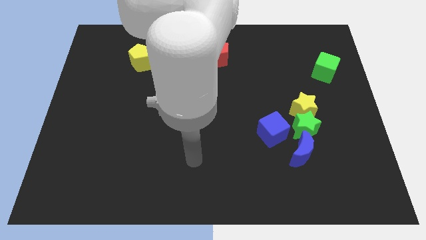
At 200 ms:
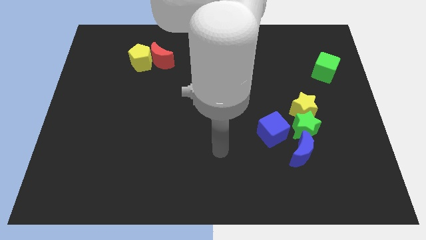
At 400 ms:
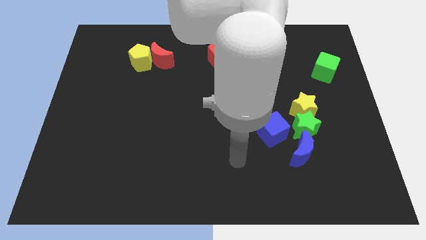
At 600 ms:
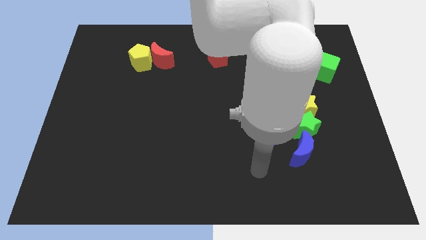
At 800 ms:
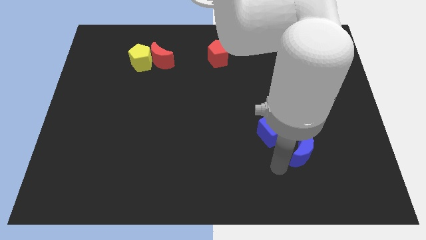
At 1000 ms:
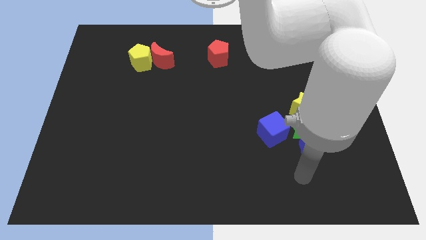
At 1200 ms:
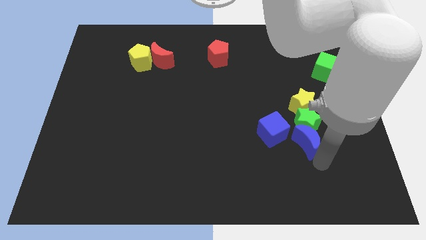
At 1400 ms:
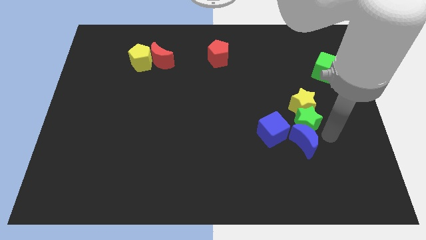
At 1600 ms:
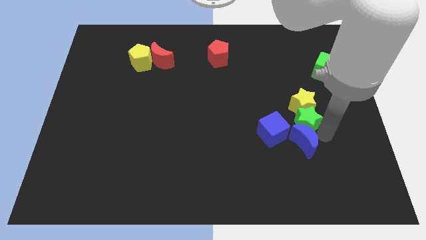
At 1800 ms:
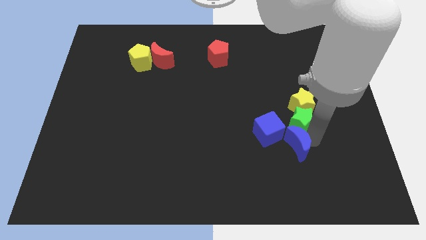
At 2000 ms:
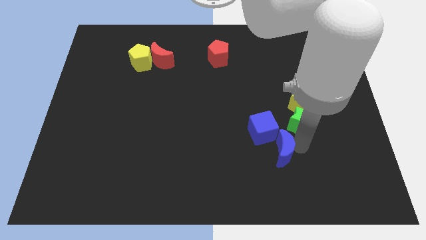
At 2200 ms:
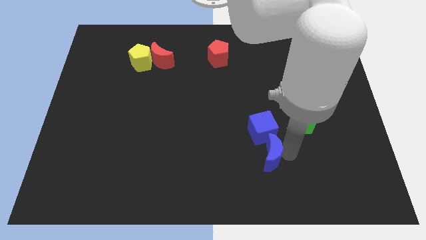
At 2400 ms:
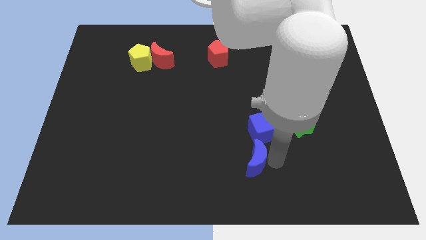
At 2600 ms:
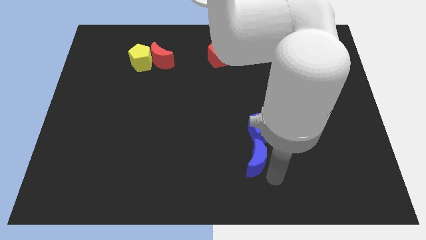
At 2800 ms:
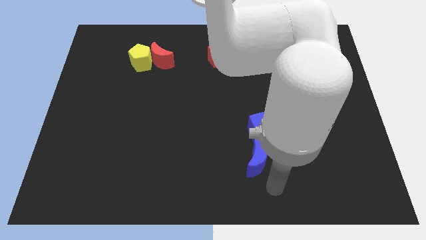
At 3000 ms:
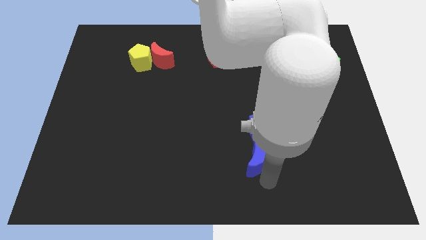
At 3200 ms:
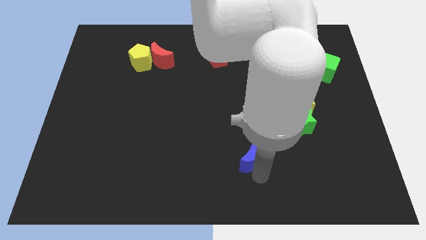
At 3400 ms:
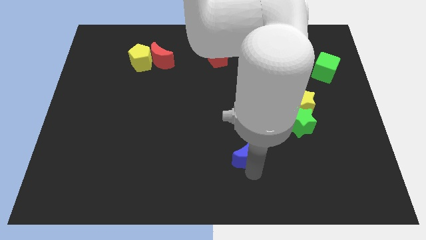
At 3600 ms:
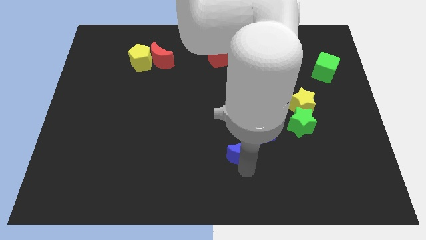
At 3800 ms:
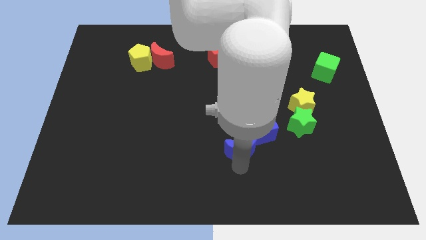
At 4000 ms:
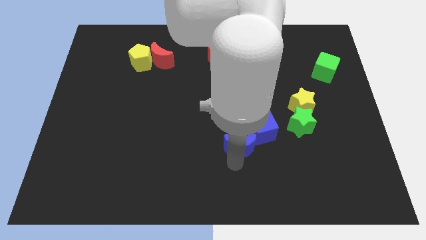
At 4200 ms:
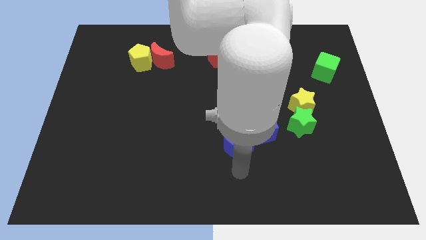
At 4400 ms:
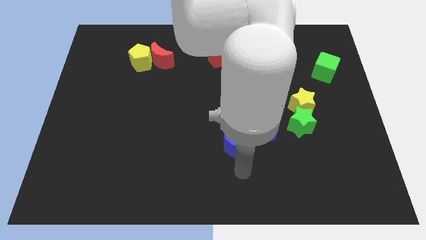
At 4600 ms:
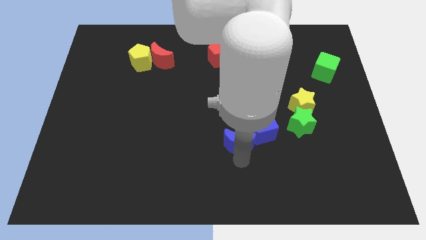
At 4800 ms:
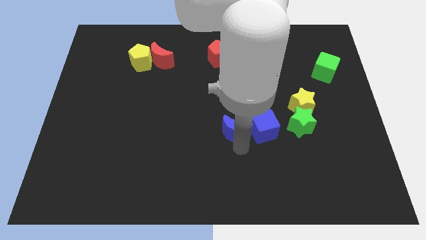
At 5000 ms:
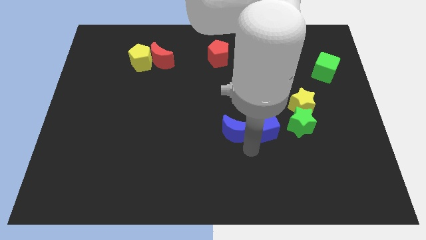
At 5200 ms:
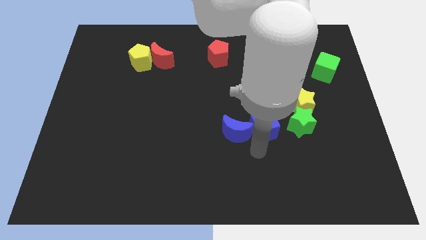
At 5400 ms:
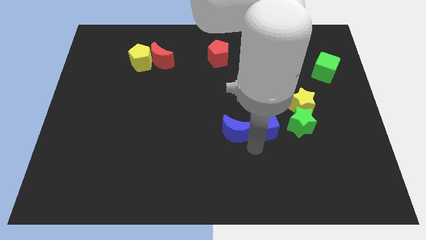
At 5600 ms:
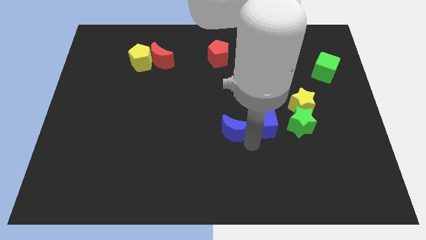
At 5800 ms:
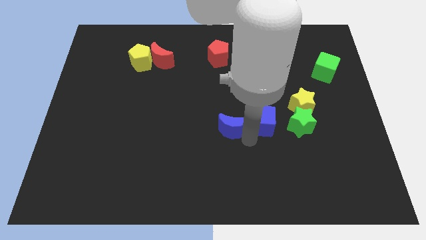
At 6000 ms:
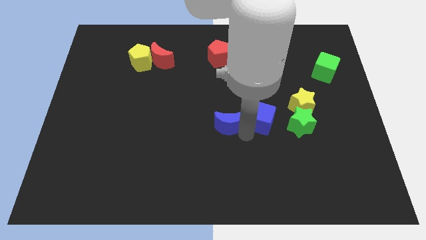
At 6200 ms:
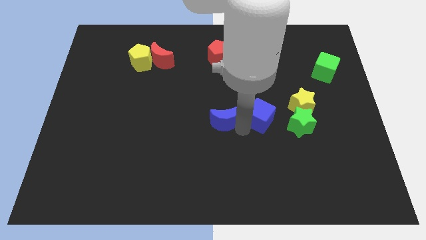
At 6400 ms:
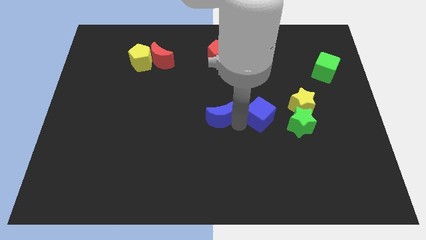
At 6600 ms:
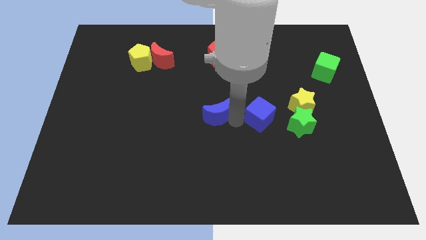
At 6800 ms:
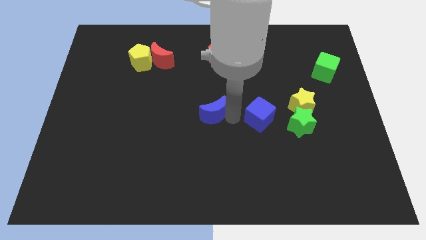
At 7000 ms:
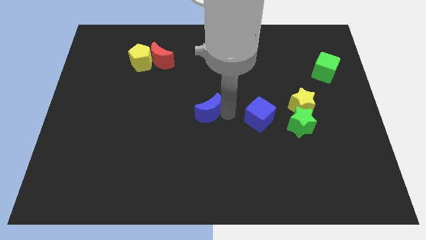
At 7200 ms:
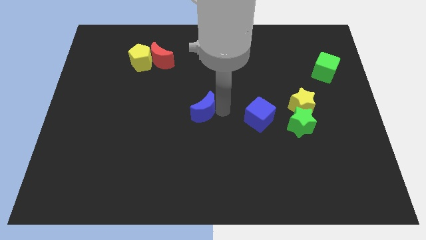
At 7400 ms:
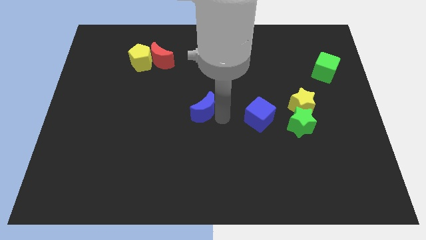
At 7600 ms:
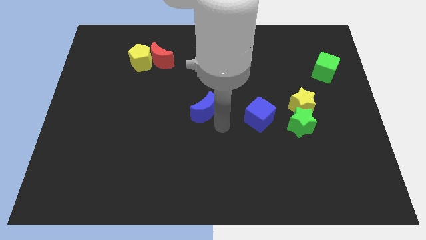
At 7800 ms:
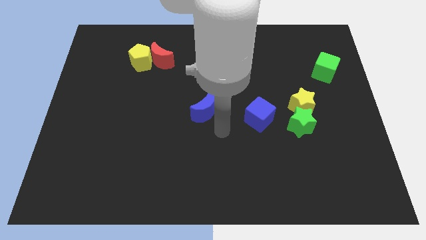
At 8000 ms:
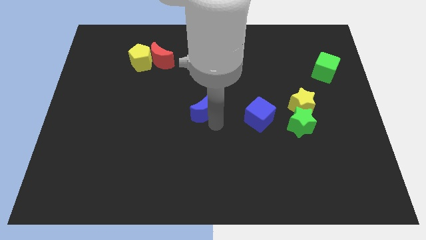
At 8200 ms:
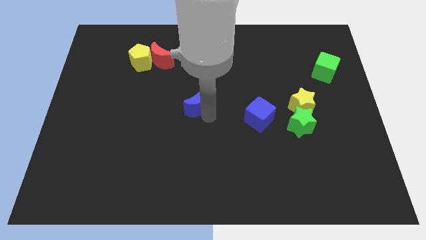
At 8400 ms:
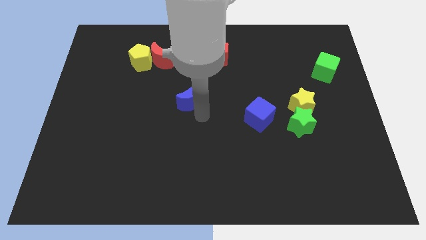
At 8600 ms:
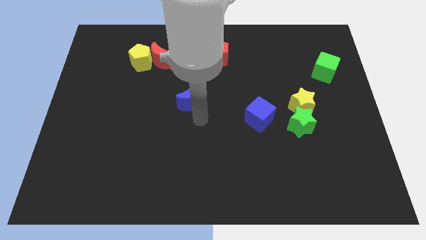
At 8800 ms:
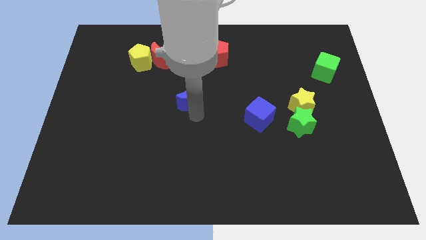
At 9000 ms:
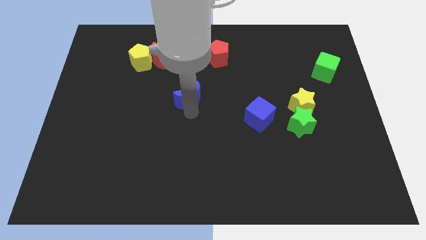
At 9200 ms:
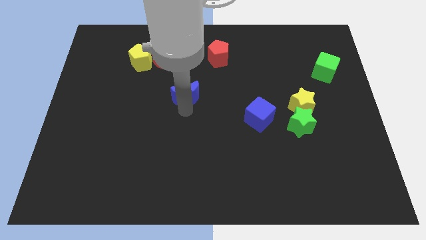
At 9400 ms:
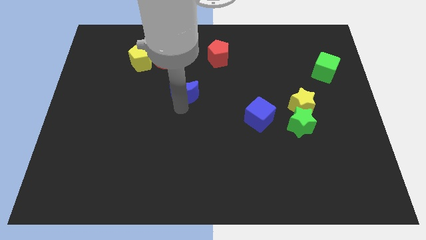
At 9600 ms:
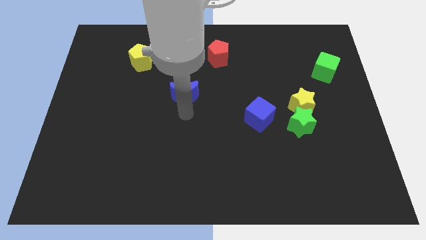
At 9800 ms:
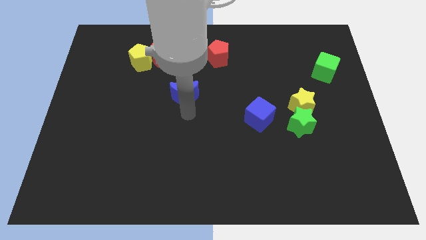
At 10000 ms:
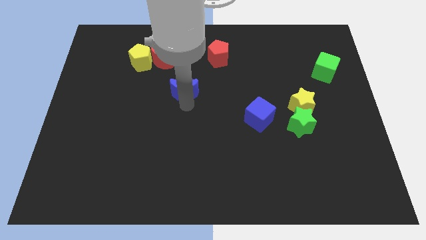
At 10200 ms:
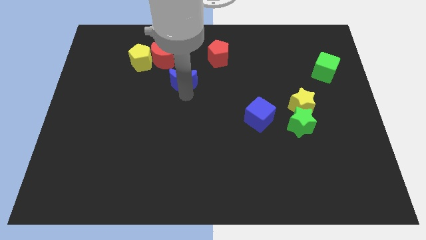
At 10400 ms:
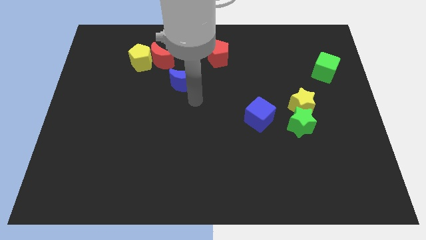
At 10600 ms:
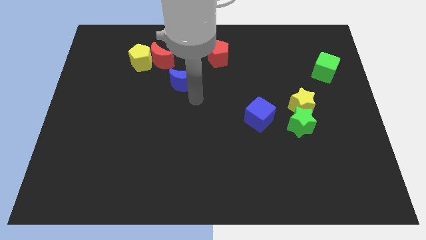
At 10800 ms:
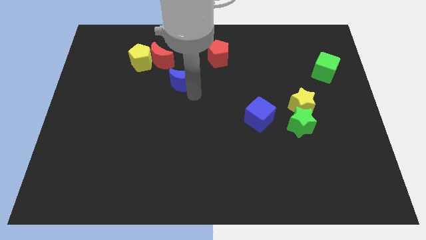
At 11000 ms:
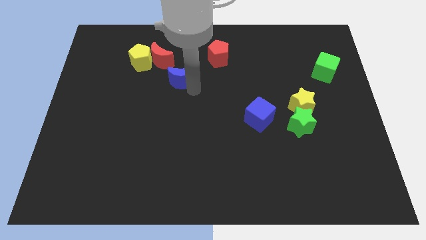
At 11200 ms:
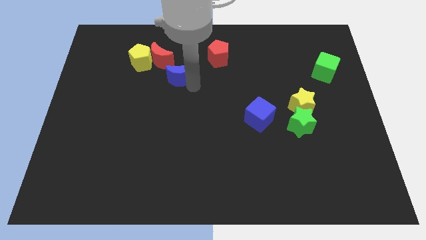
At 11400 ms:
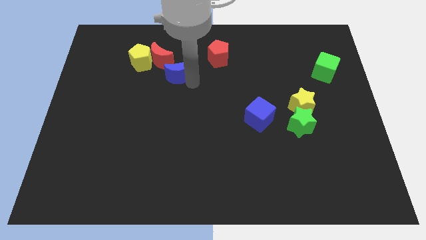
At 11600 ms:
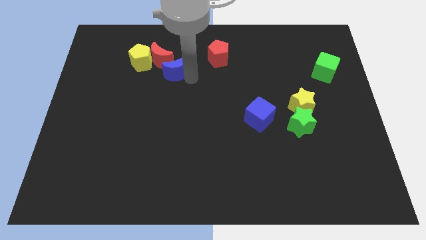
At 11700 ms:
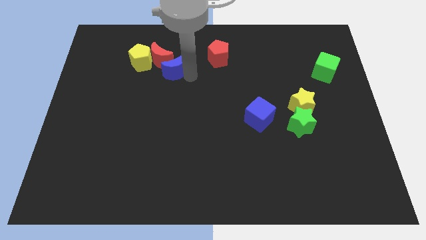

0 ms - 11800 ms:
slide the blue moon close to the red moon

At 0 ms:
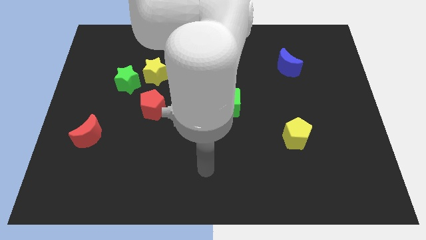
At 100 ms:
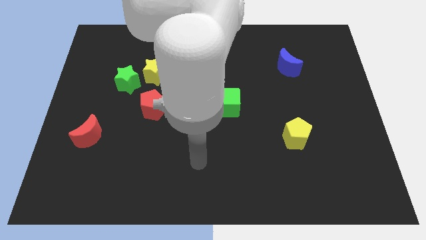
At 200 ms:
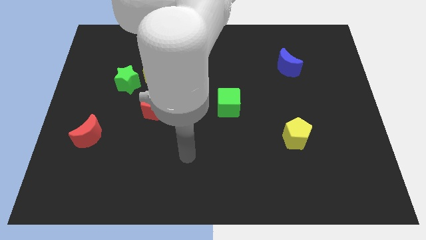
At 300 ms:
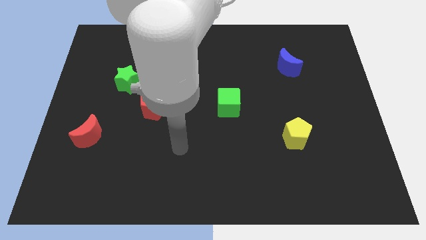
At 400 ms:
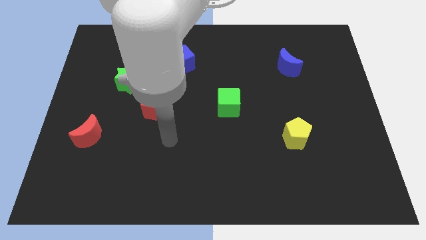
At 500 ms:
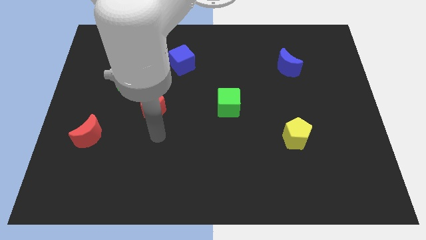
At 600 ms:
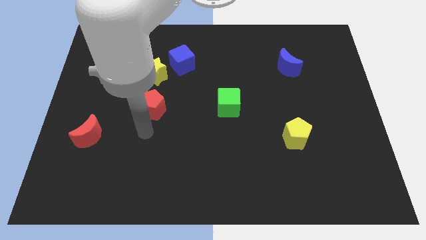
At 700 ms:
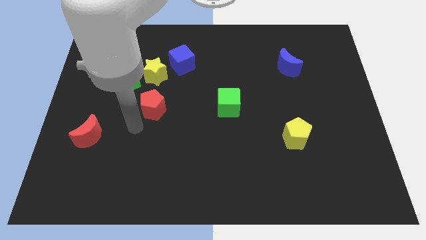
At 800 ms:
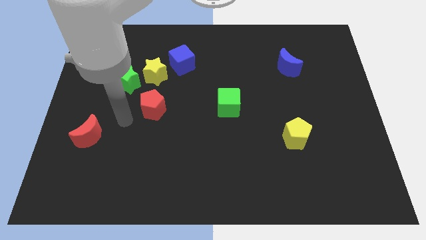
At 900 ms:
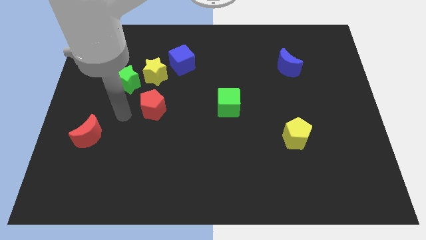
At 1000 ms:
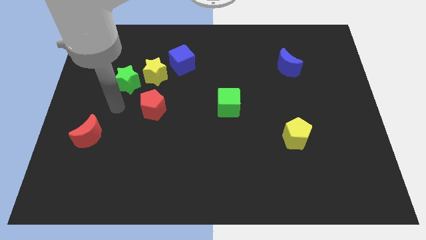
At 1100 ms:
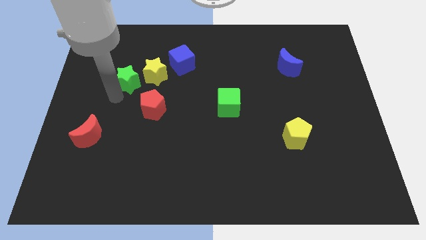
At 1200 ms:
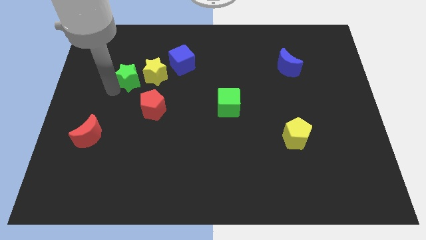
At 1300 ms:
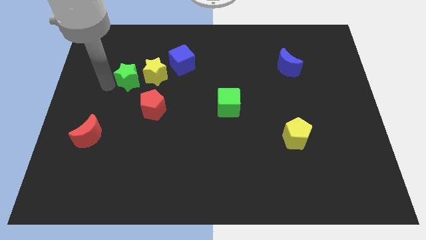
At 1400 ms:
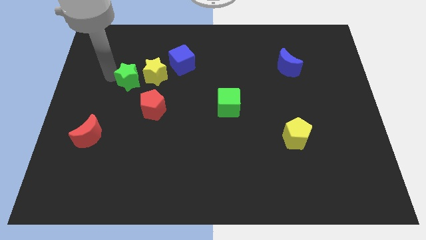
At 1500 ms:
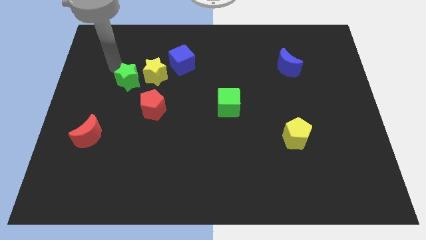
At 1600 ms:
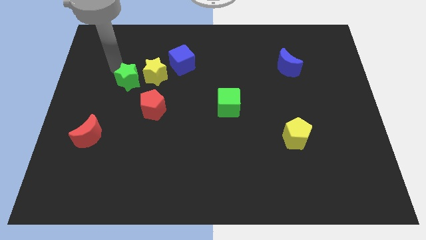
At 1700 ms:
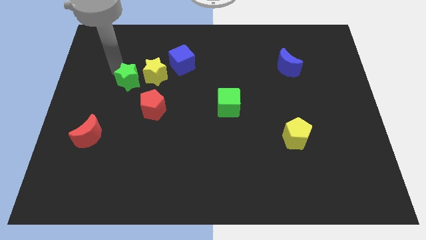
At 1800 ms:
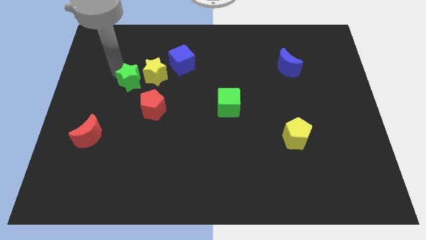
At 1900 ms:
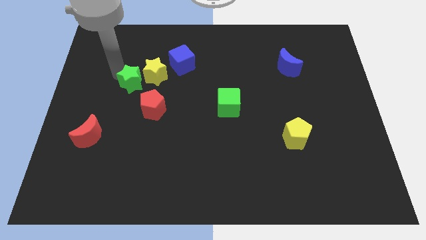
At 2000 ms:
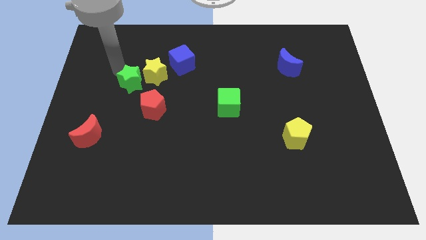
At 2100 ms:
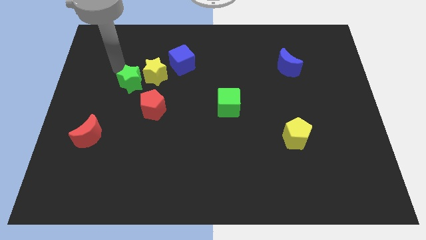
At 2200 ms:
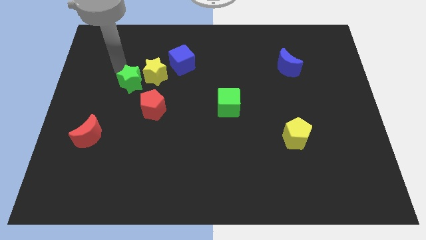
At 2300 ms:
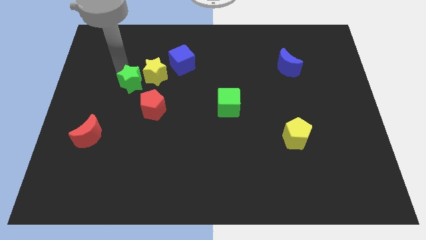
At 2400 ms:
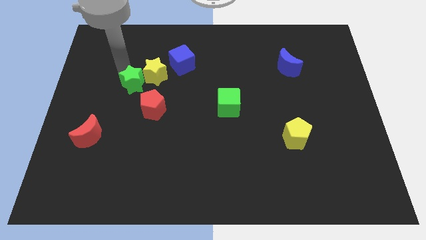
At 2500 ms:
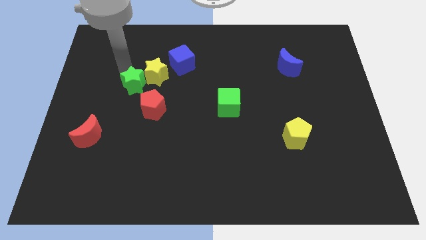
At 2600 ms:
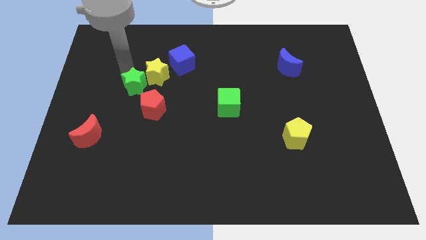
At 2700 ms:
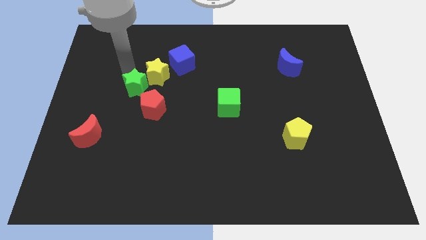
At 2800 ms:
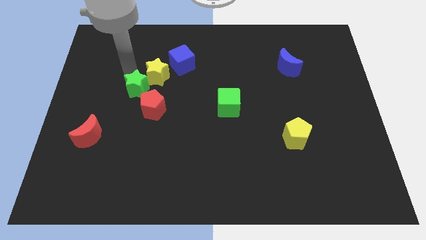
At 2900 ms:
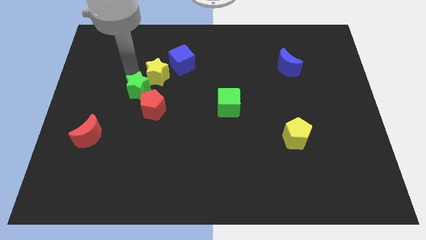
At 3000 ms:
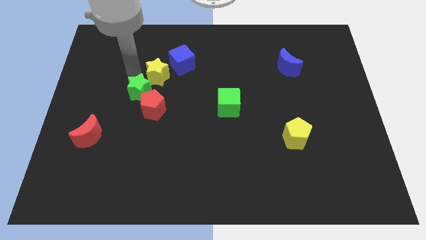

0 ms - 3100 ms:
put the green star to the red pentagon
